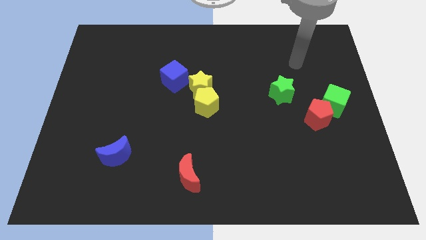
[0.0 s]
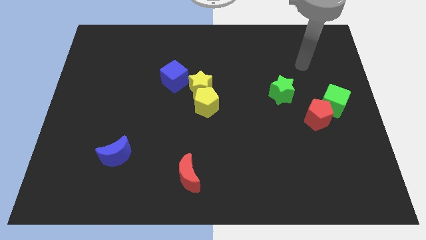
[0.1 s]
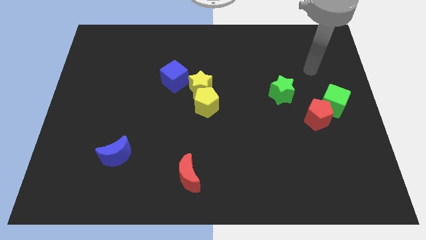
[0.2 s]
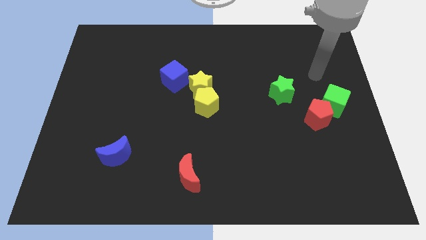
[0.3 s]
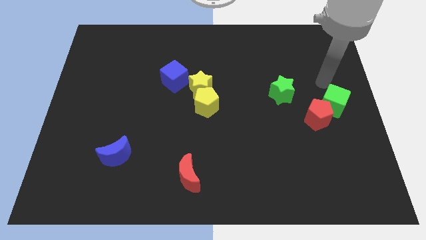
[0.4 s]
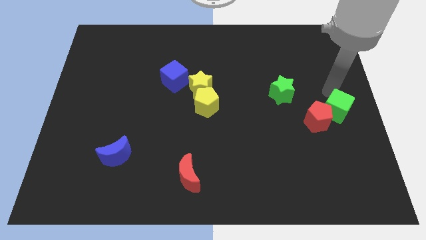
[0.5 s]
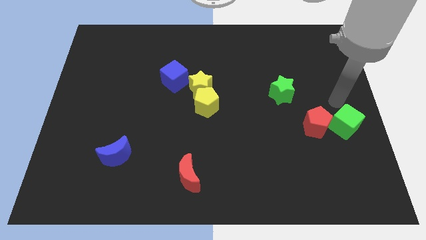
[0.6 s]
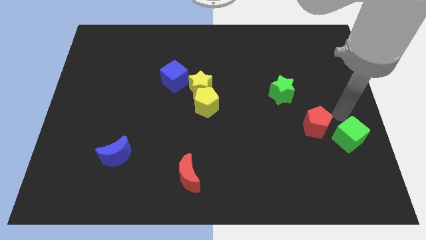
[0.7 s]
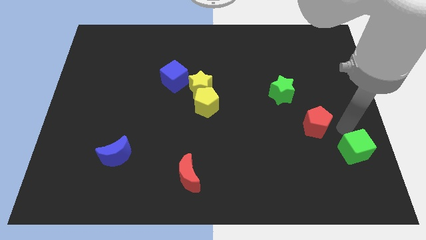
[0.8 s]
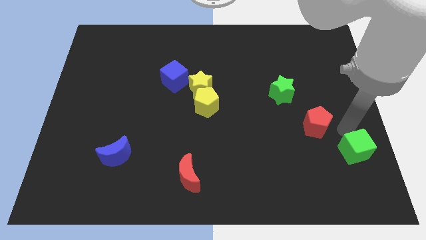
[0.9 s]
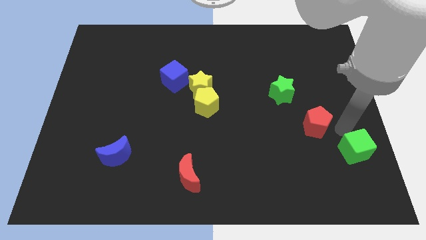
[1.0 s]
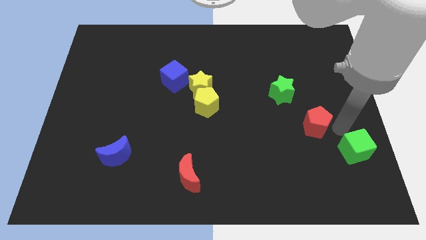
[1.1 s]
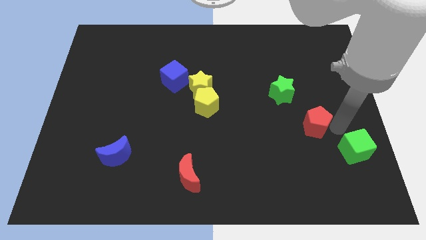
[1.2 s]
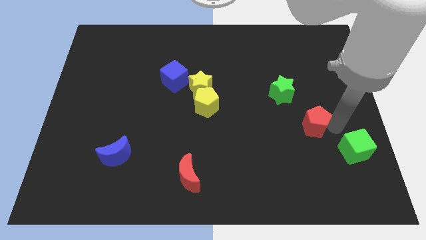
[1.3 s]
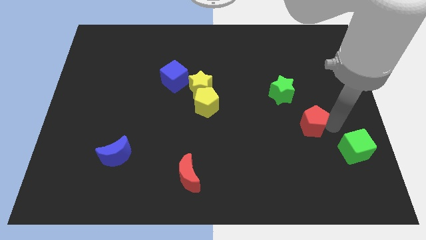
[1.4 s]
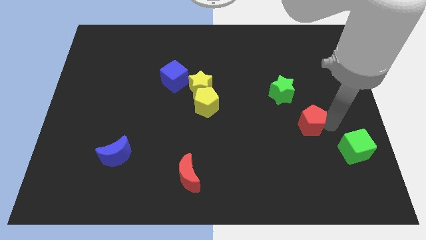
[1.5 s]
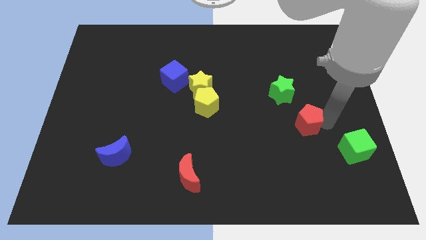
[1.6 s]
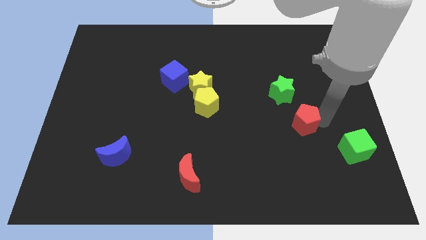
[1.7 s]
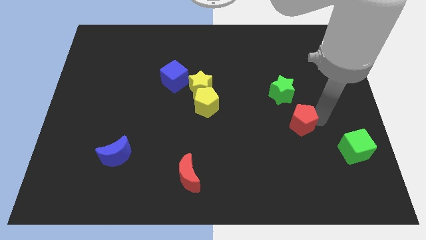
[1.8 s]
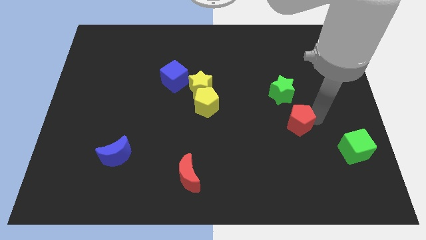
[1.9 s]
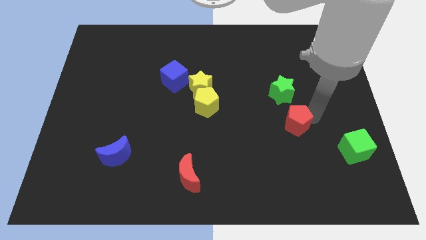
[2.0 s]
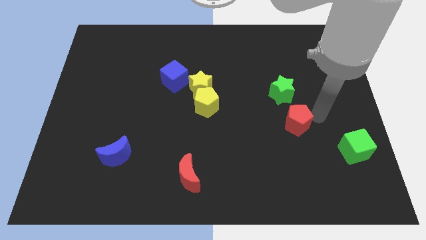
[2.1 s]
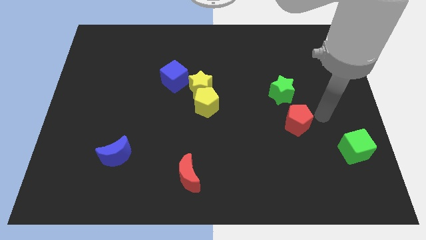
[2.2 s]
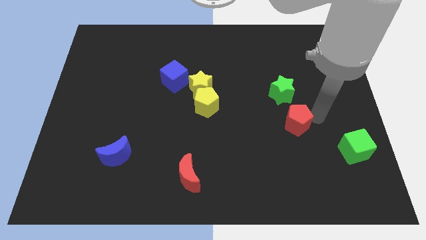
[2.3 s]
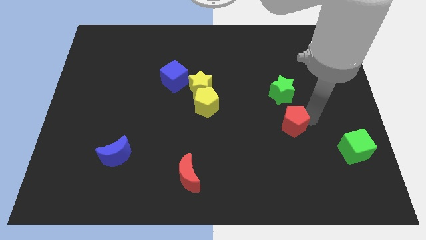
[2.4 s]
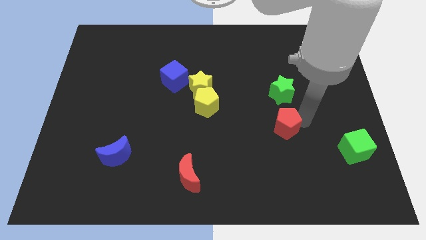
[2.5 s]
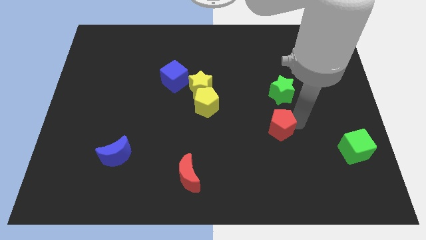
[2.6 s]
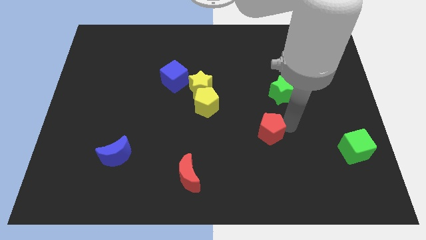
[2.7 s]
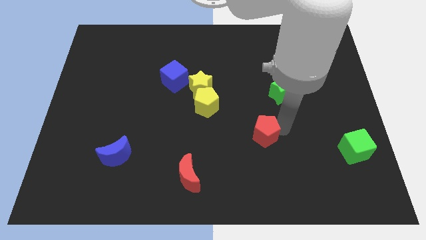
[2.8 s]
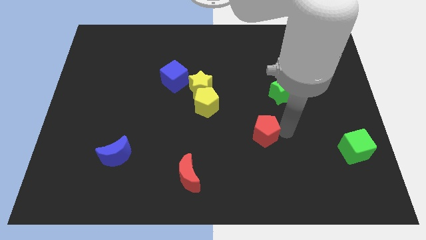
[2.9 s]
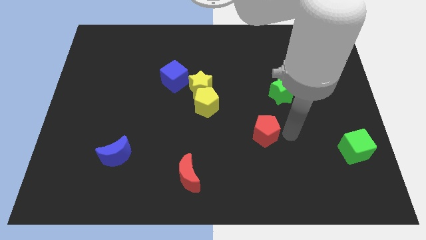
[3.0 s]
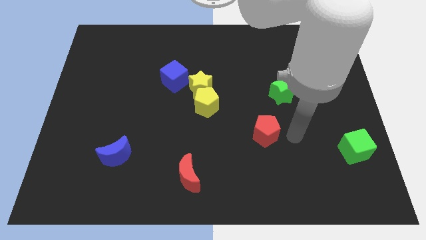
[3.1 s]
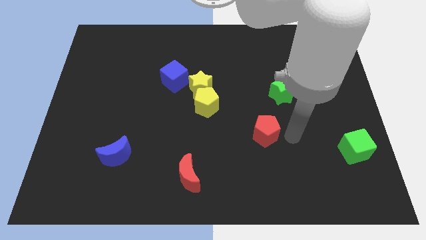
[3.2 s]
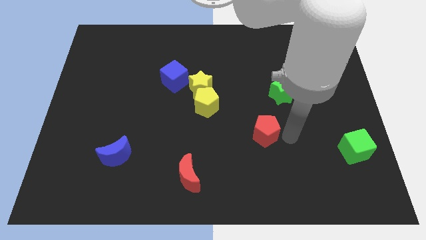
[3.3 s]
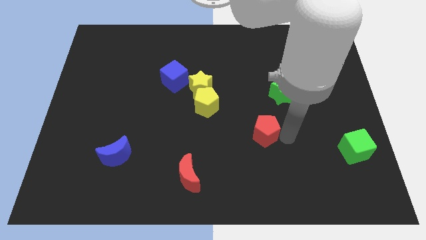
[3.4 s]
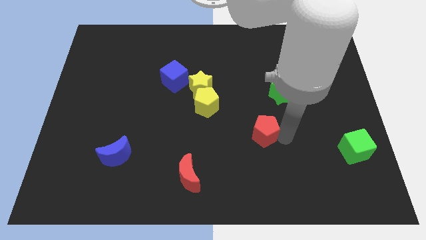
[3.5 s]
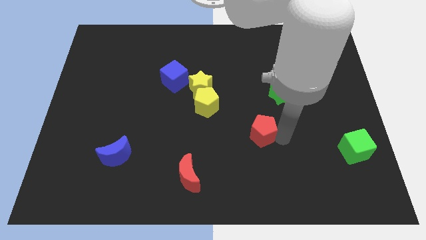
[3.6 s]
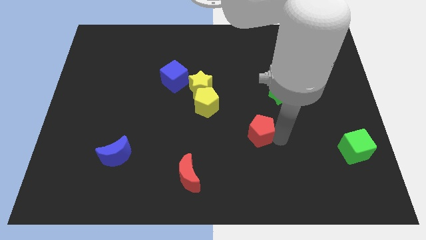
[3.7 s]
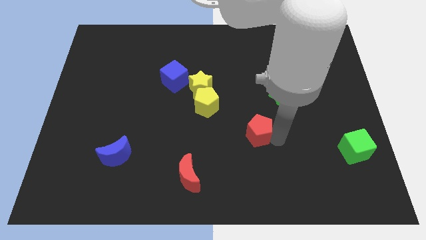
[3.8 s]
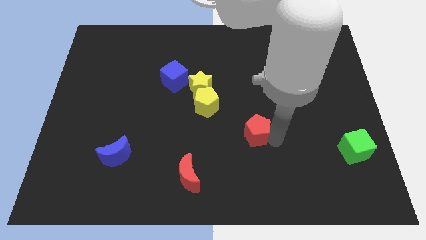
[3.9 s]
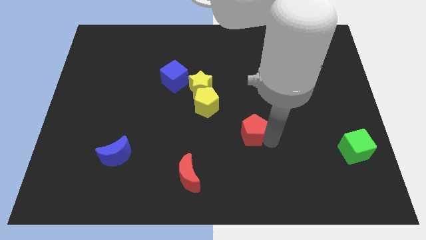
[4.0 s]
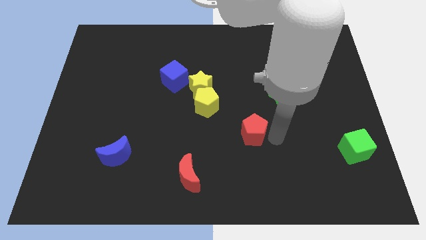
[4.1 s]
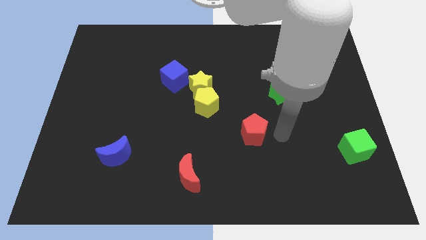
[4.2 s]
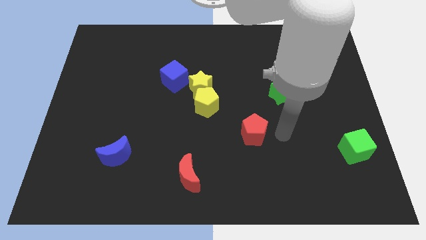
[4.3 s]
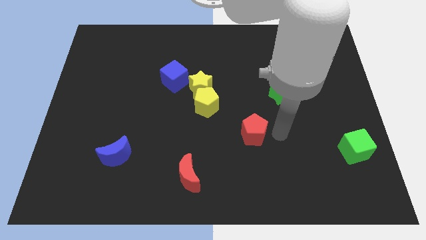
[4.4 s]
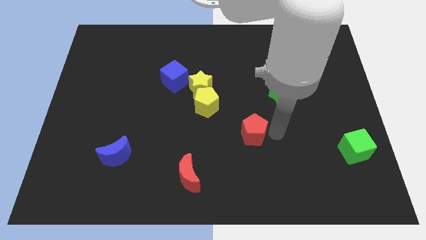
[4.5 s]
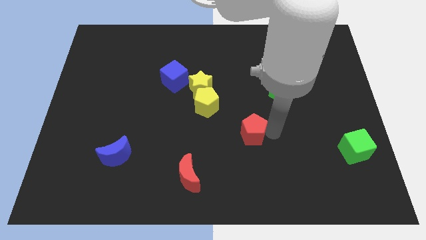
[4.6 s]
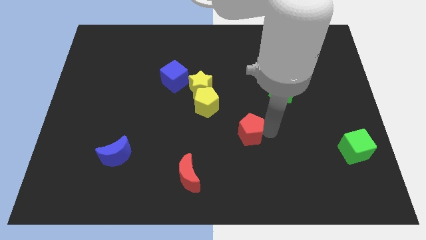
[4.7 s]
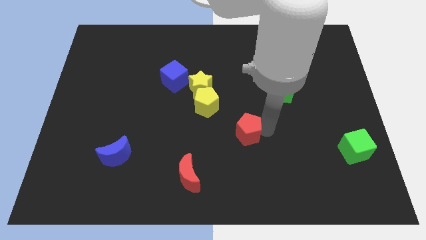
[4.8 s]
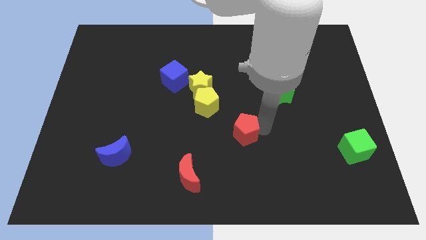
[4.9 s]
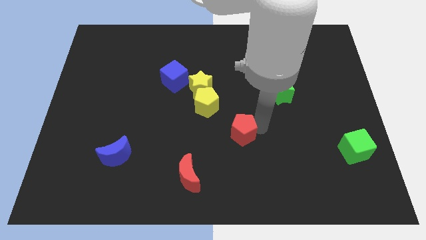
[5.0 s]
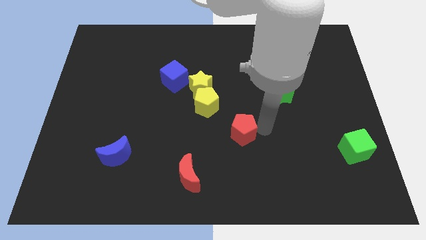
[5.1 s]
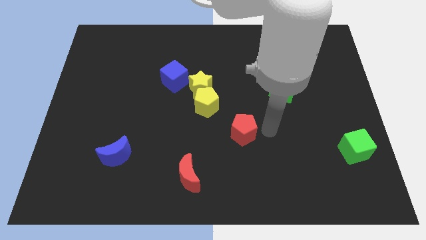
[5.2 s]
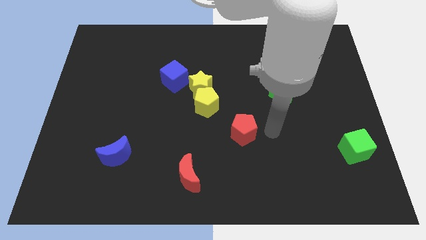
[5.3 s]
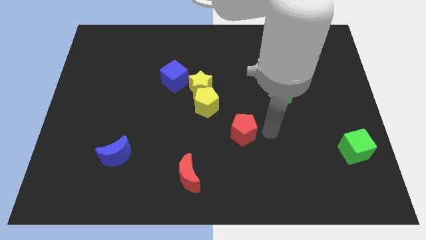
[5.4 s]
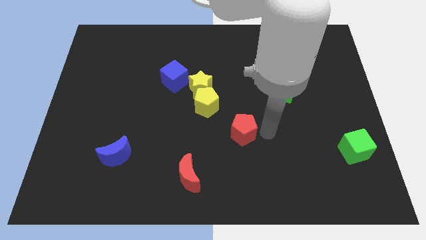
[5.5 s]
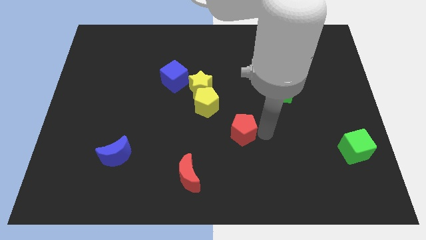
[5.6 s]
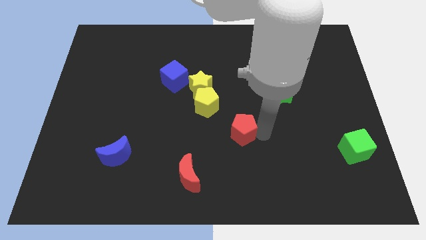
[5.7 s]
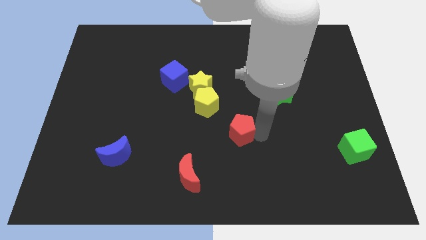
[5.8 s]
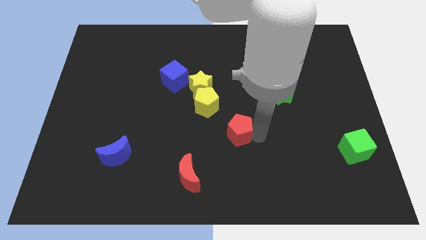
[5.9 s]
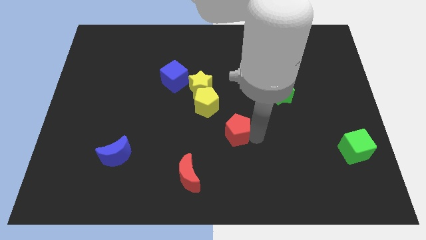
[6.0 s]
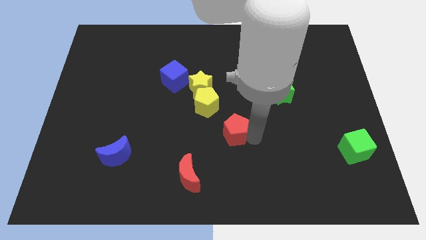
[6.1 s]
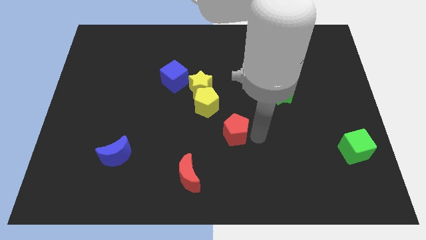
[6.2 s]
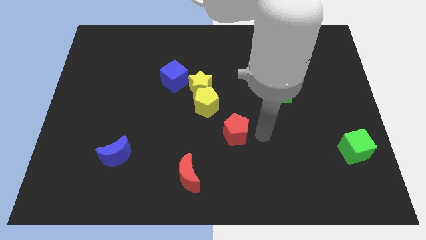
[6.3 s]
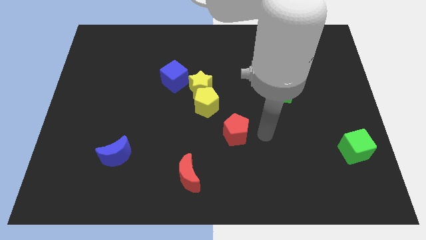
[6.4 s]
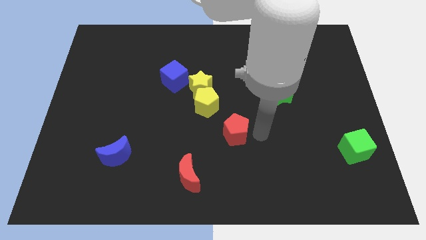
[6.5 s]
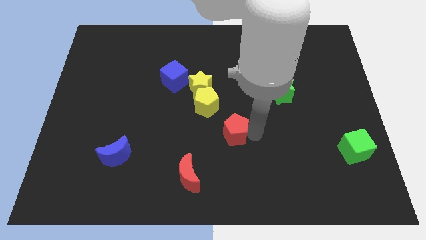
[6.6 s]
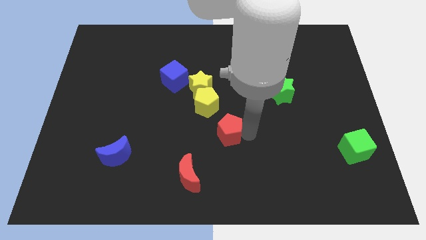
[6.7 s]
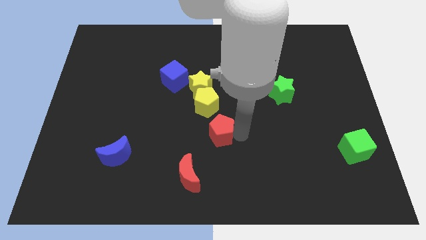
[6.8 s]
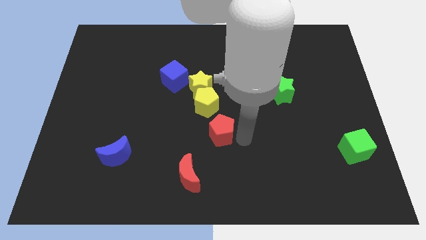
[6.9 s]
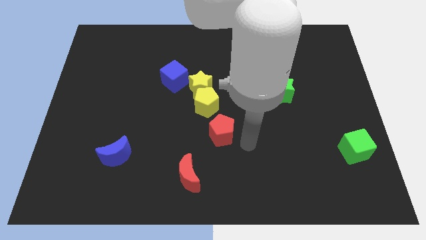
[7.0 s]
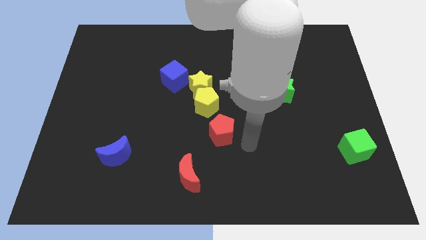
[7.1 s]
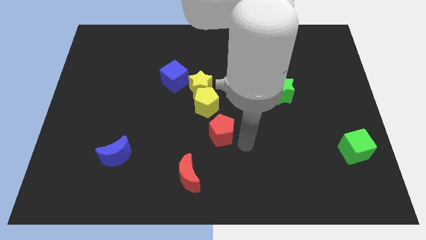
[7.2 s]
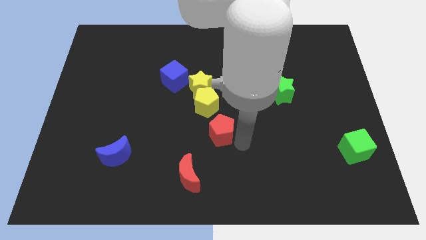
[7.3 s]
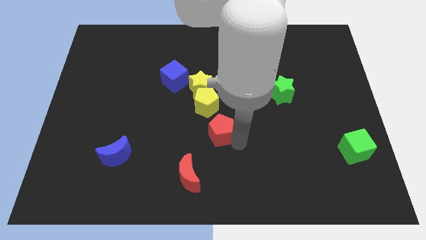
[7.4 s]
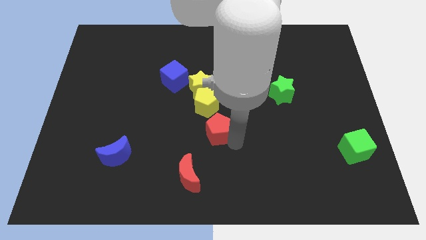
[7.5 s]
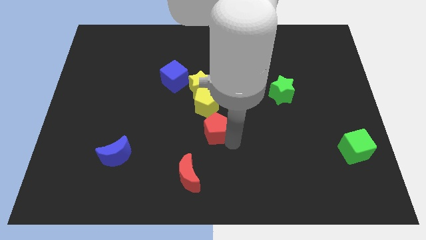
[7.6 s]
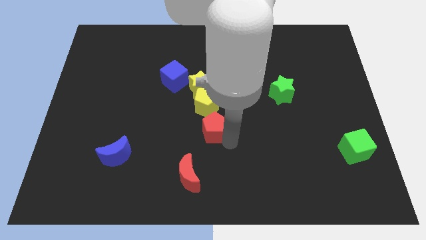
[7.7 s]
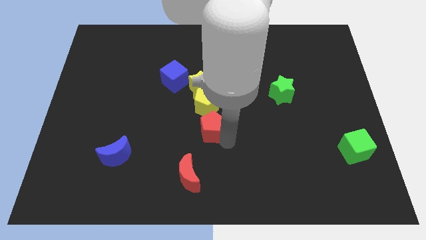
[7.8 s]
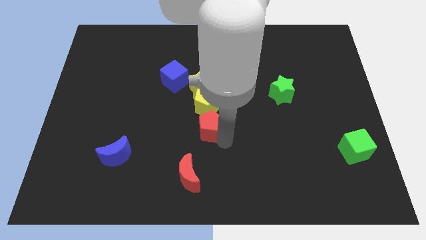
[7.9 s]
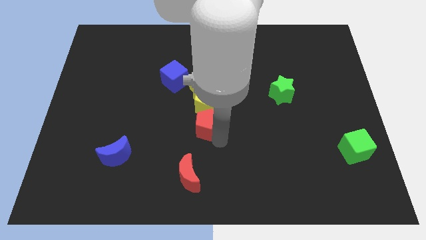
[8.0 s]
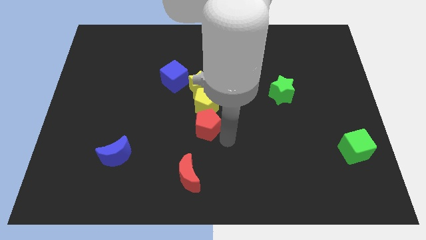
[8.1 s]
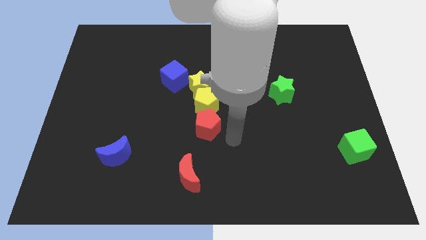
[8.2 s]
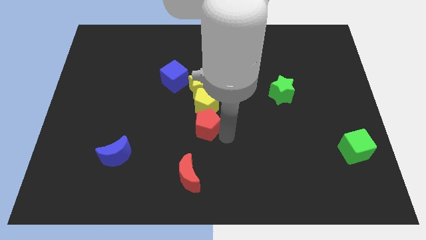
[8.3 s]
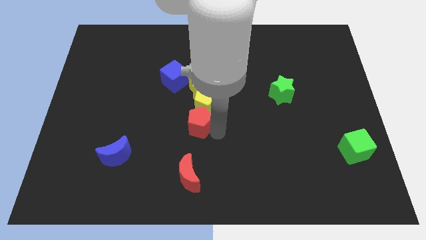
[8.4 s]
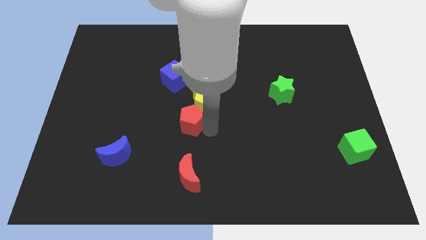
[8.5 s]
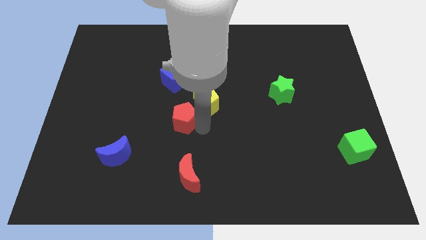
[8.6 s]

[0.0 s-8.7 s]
move the red pentagon below the blue cube
